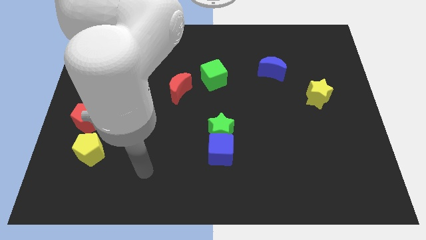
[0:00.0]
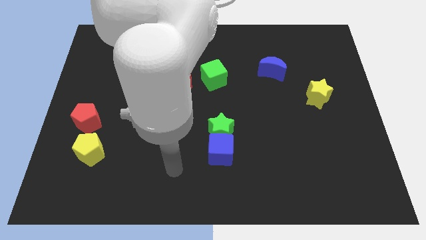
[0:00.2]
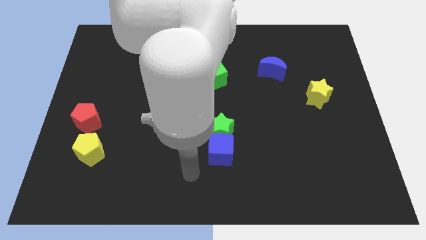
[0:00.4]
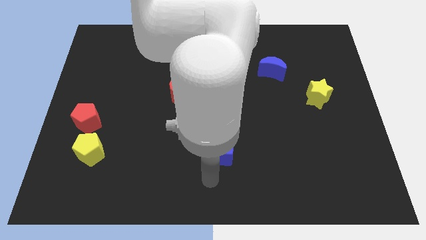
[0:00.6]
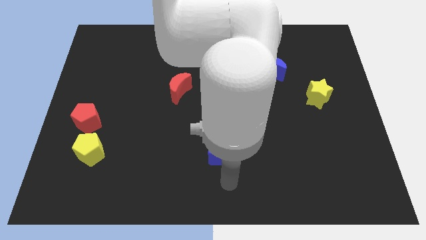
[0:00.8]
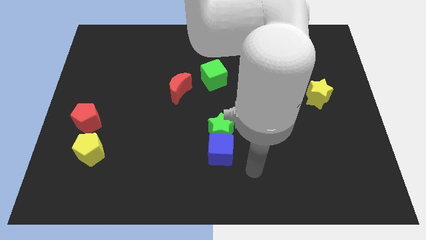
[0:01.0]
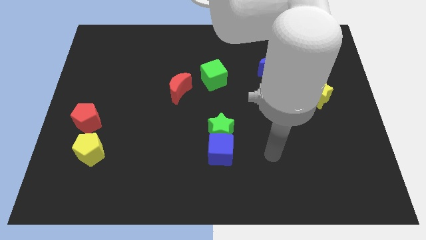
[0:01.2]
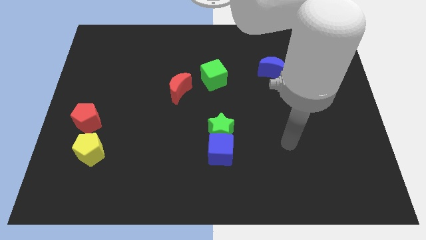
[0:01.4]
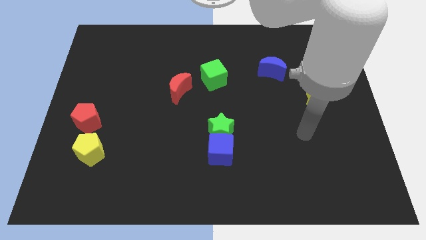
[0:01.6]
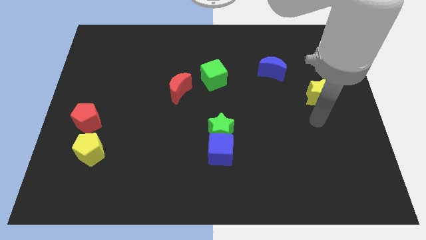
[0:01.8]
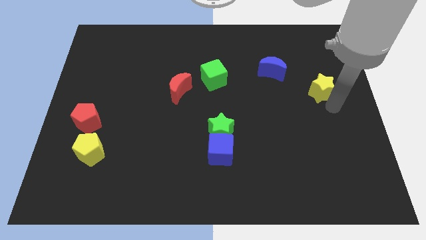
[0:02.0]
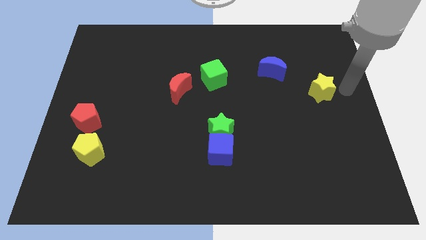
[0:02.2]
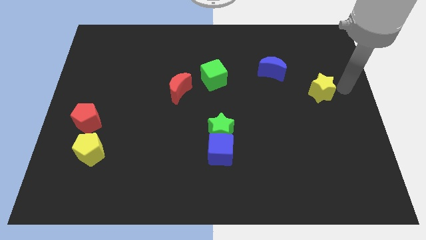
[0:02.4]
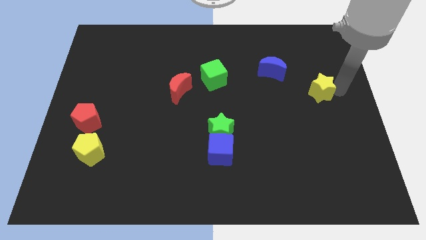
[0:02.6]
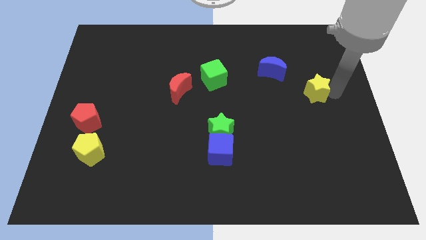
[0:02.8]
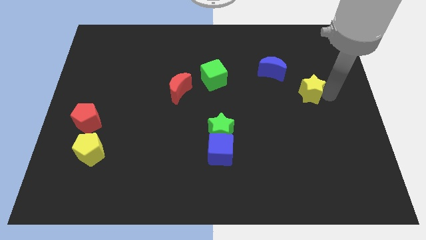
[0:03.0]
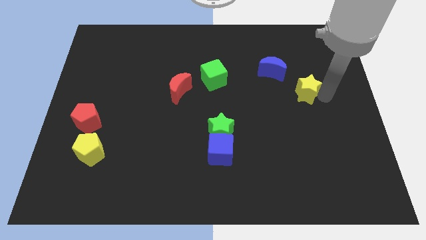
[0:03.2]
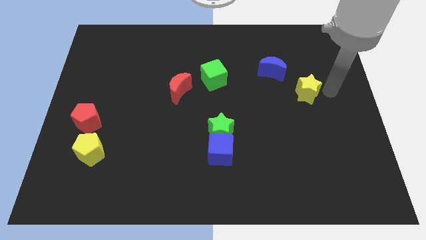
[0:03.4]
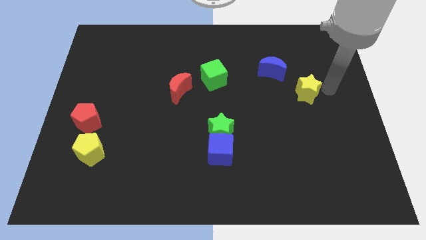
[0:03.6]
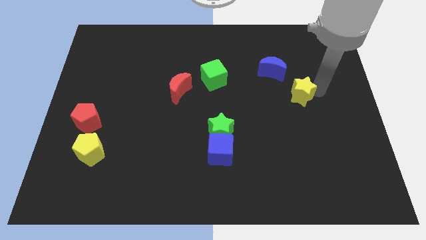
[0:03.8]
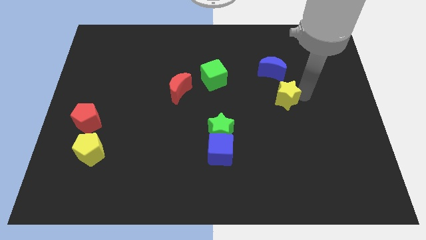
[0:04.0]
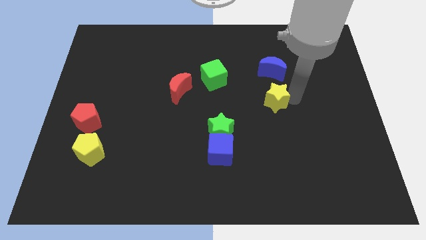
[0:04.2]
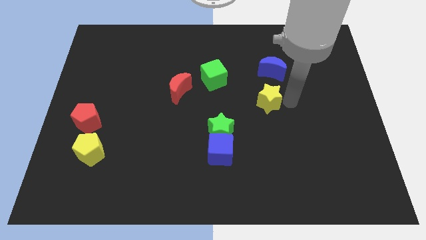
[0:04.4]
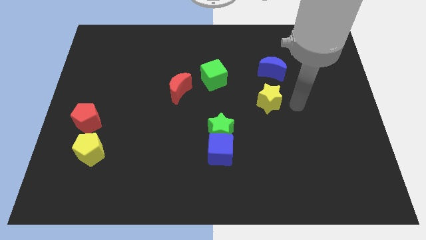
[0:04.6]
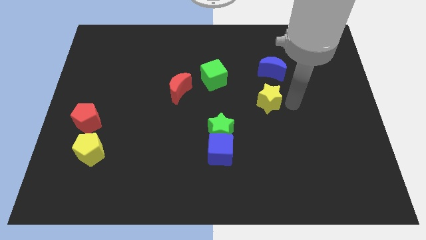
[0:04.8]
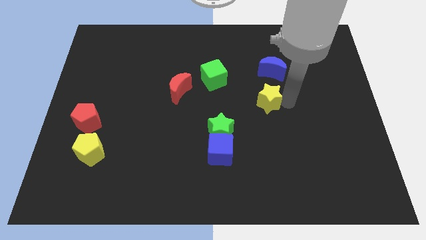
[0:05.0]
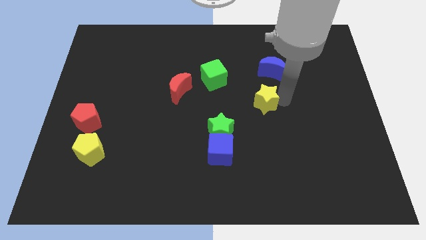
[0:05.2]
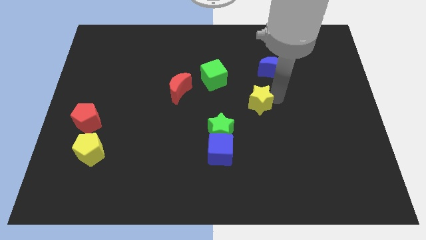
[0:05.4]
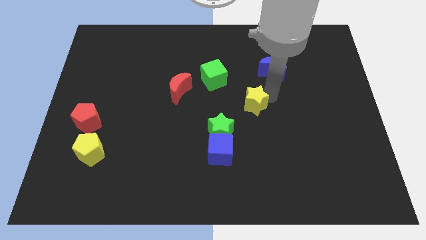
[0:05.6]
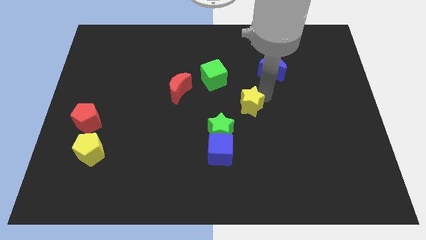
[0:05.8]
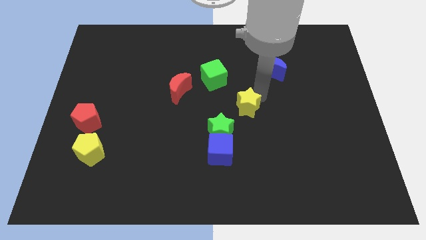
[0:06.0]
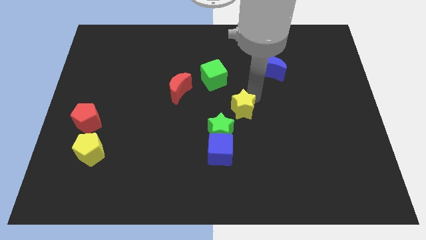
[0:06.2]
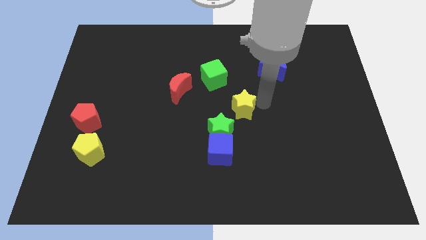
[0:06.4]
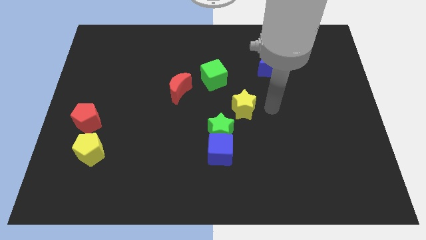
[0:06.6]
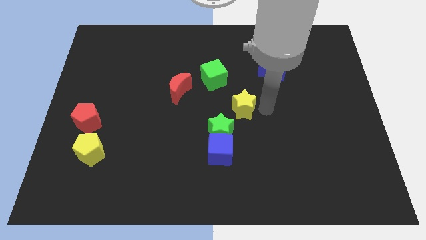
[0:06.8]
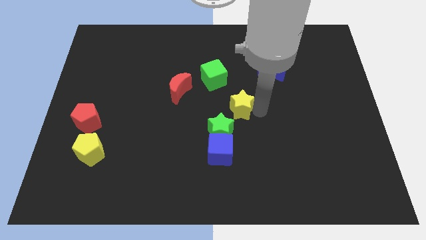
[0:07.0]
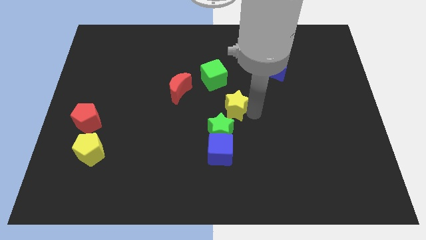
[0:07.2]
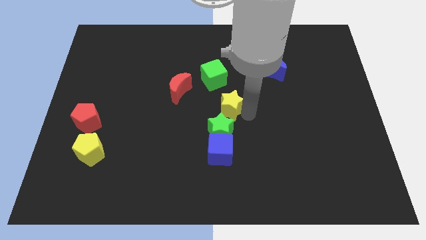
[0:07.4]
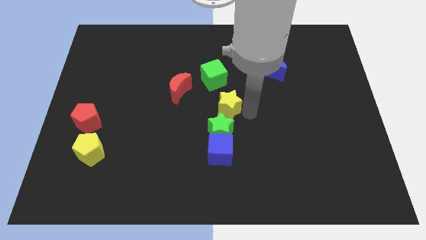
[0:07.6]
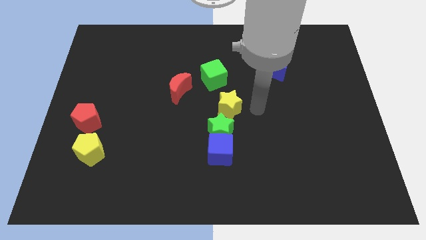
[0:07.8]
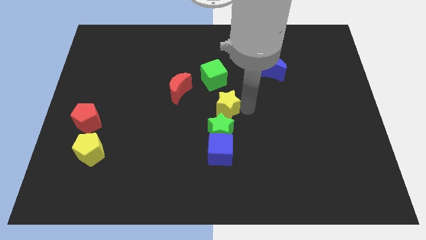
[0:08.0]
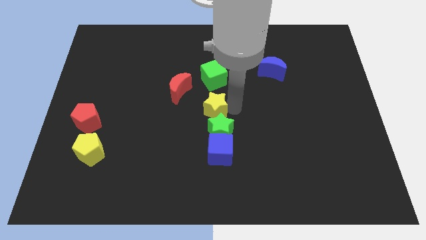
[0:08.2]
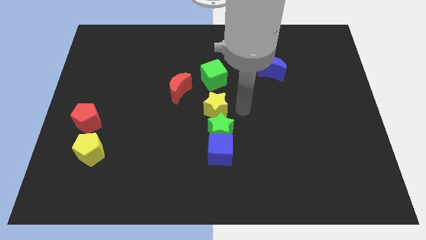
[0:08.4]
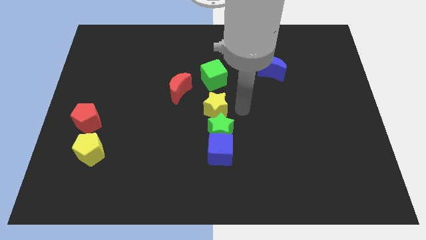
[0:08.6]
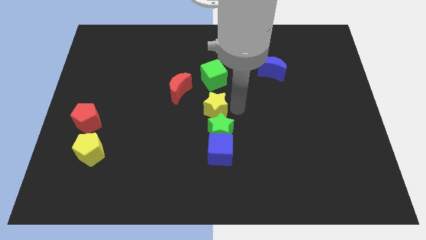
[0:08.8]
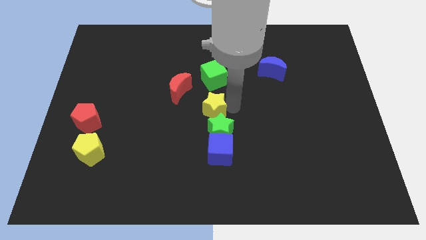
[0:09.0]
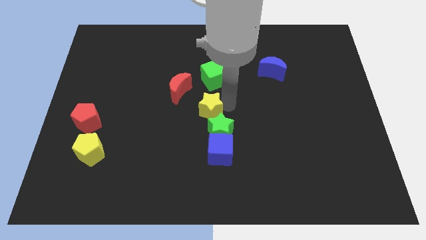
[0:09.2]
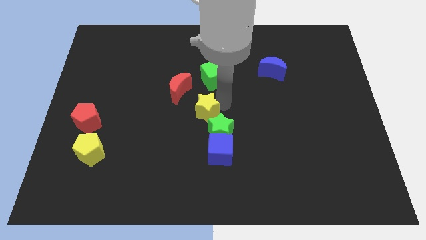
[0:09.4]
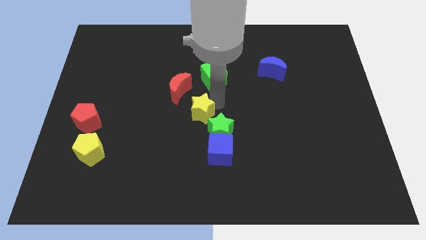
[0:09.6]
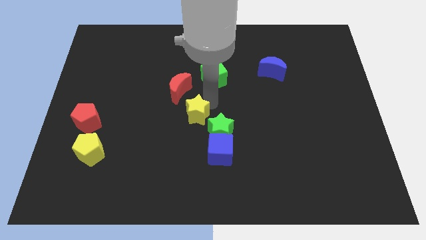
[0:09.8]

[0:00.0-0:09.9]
move the yellow star to the left of the green star

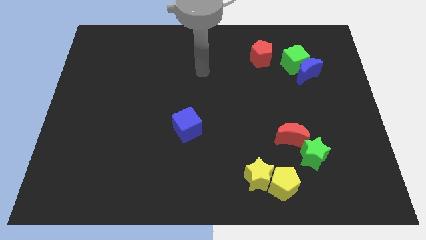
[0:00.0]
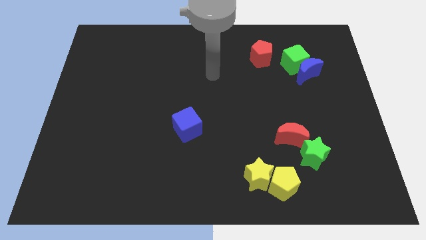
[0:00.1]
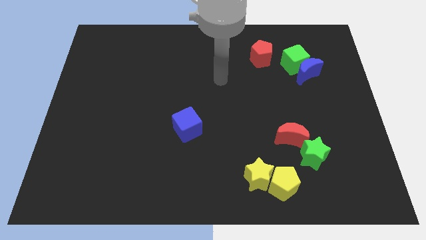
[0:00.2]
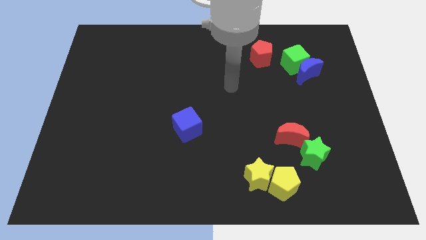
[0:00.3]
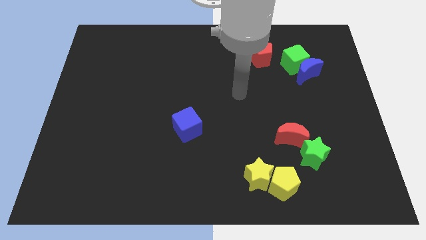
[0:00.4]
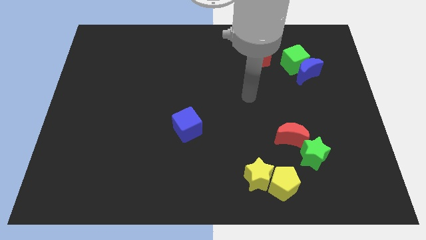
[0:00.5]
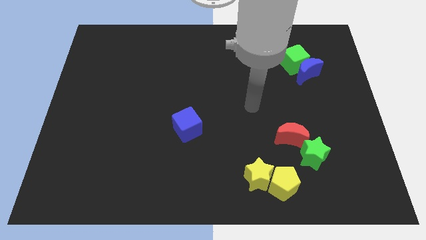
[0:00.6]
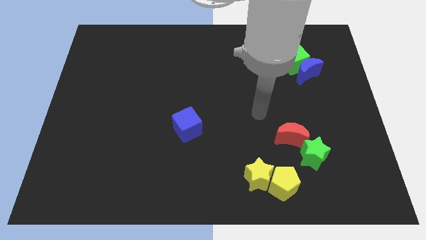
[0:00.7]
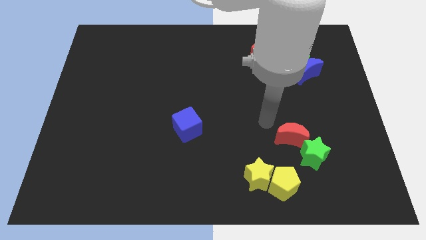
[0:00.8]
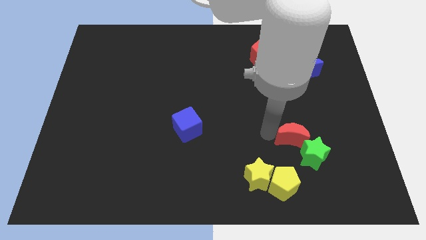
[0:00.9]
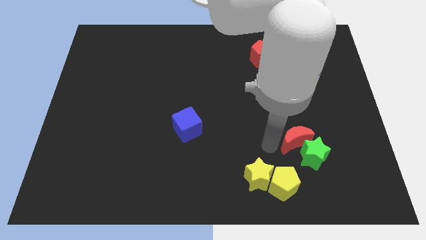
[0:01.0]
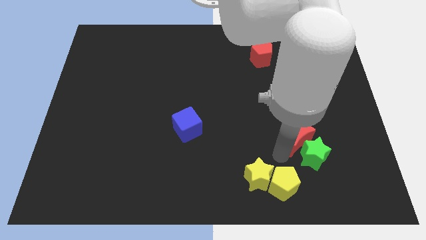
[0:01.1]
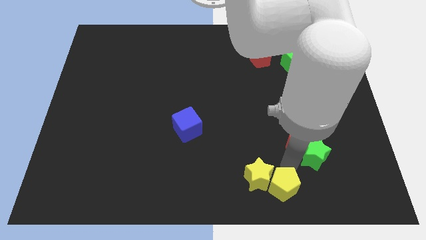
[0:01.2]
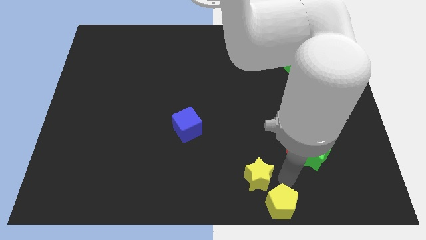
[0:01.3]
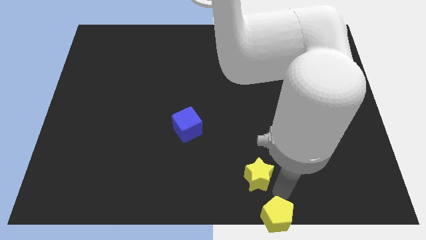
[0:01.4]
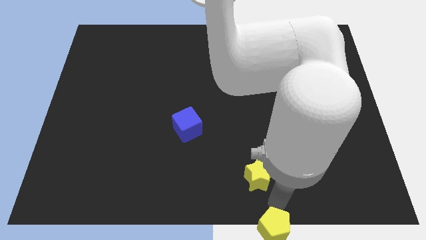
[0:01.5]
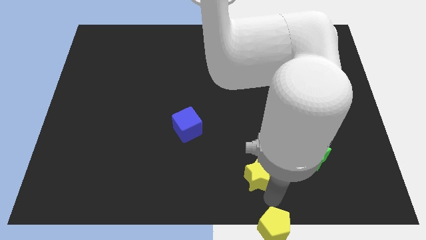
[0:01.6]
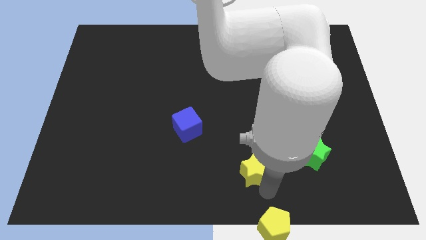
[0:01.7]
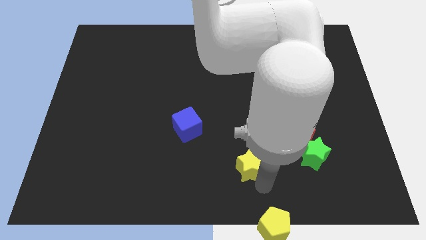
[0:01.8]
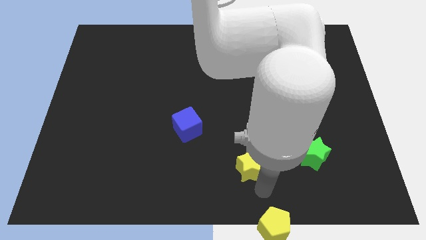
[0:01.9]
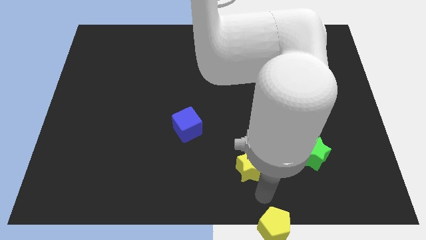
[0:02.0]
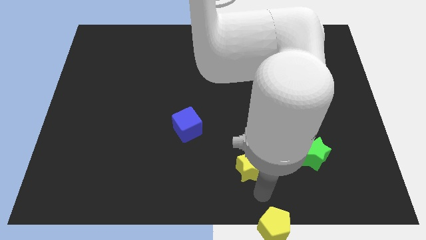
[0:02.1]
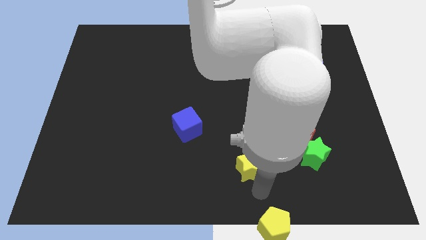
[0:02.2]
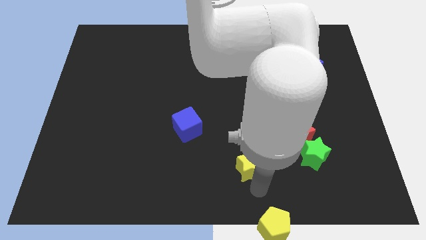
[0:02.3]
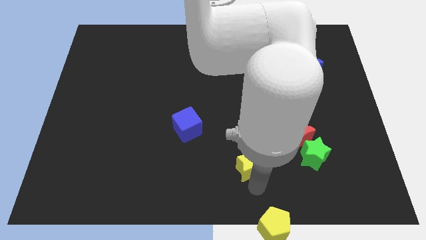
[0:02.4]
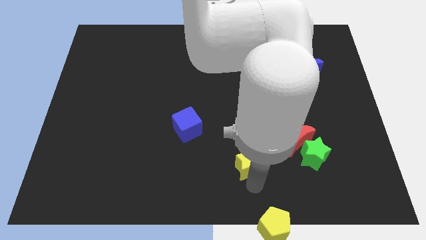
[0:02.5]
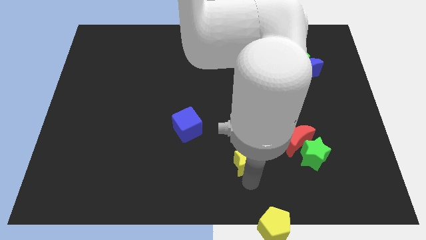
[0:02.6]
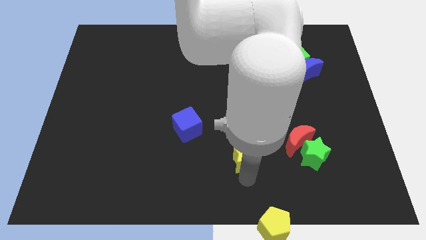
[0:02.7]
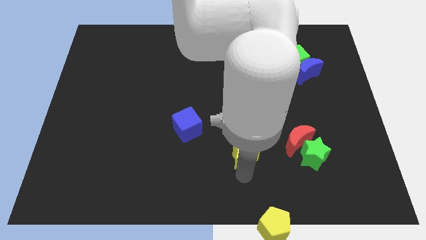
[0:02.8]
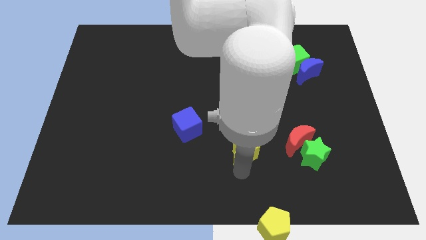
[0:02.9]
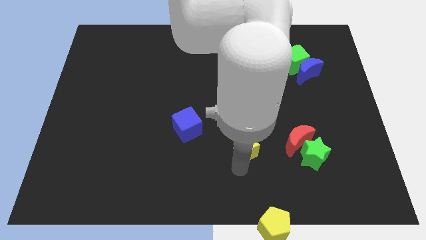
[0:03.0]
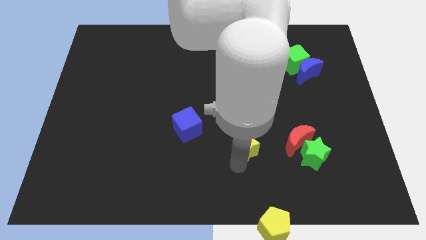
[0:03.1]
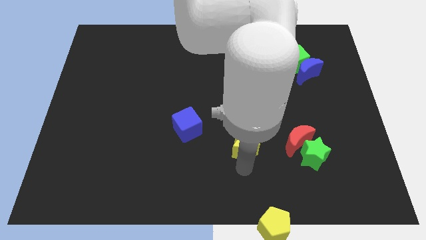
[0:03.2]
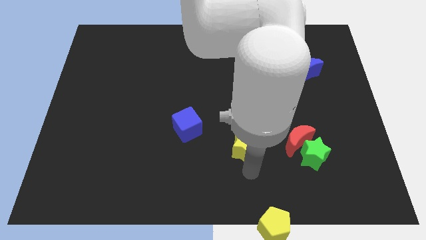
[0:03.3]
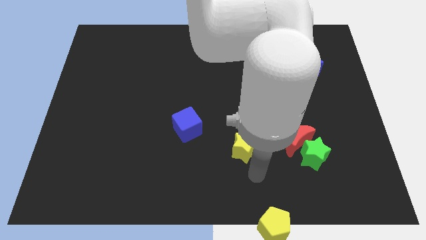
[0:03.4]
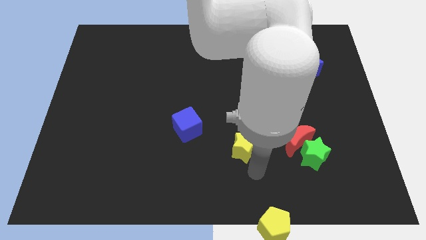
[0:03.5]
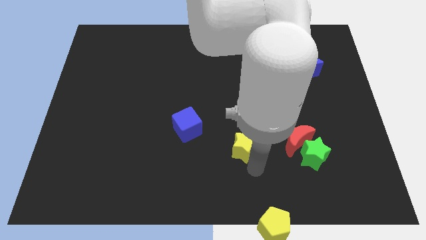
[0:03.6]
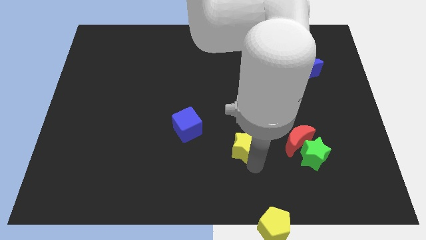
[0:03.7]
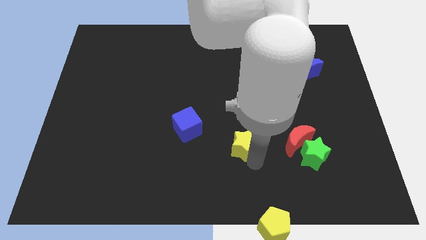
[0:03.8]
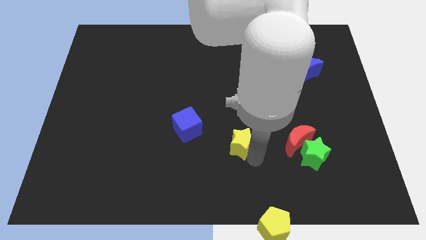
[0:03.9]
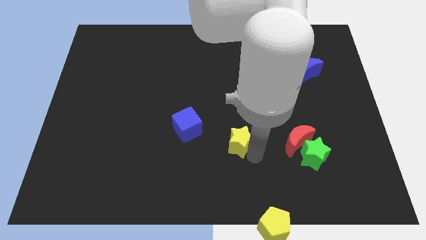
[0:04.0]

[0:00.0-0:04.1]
put the yellow star to the right of the blue cube
